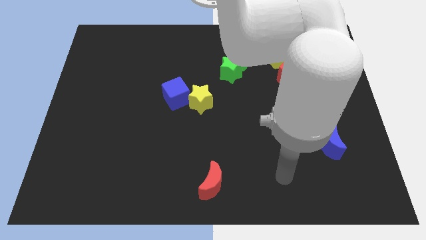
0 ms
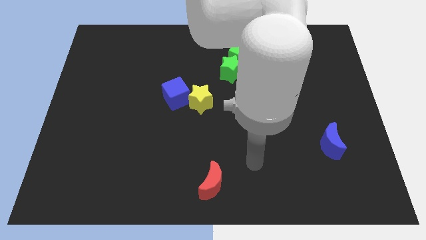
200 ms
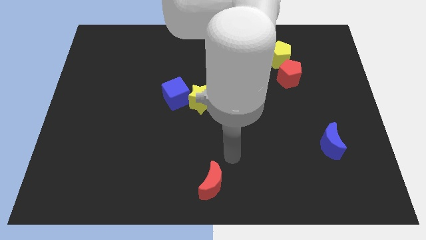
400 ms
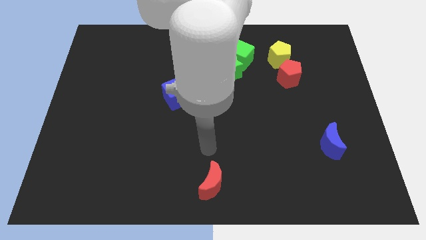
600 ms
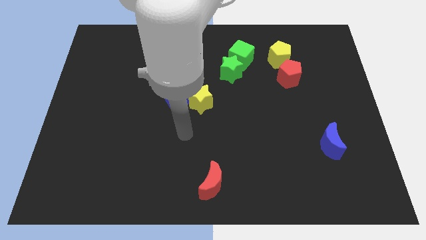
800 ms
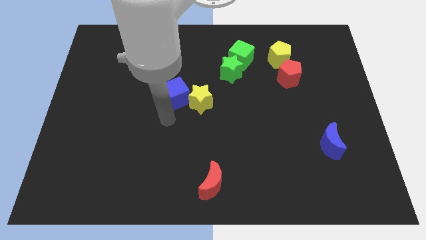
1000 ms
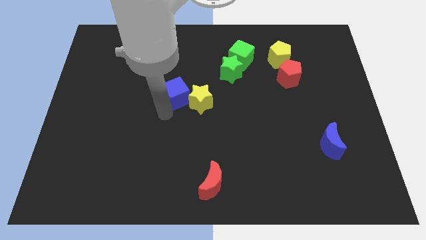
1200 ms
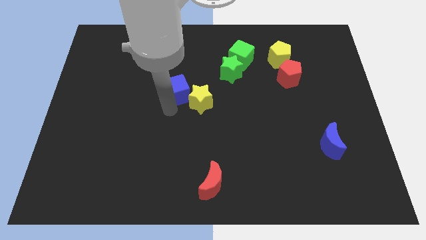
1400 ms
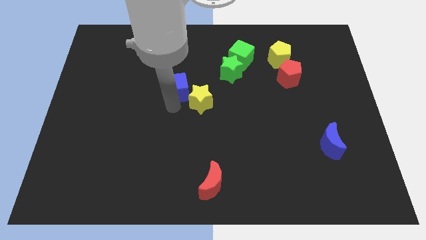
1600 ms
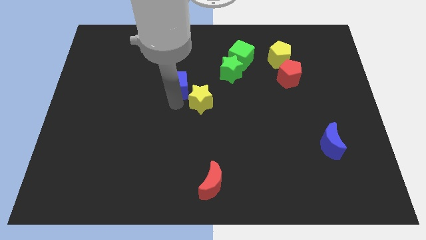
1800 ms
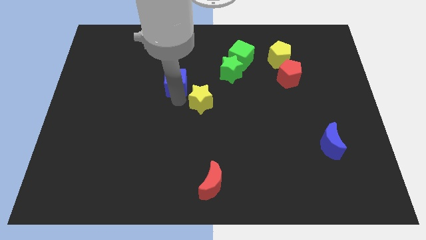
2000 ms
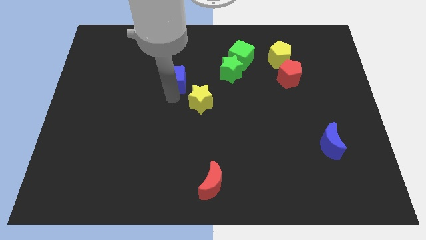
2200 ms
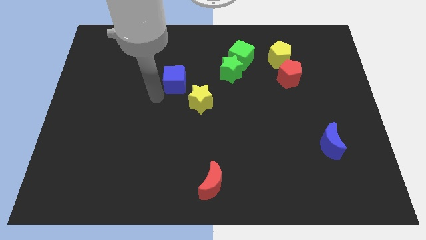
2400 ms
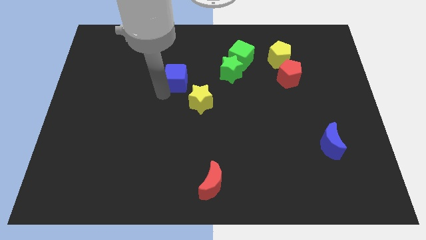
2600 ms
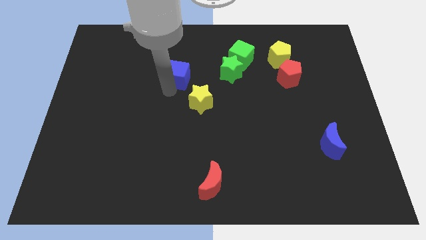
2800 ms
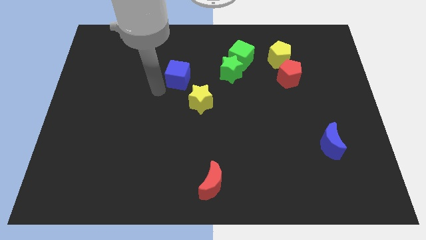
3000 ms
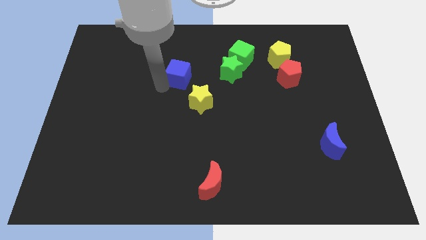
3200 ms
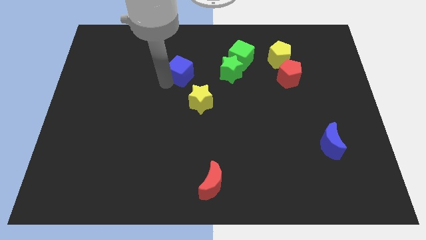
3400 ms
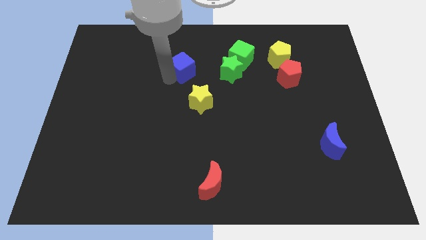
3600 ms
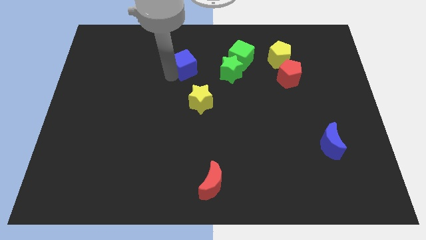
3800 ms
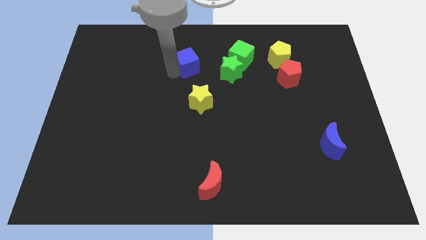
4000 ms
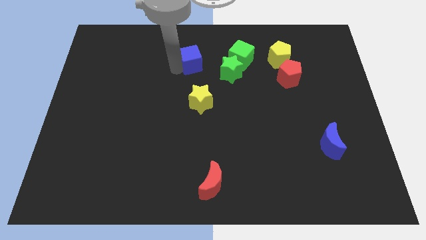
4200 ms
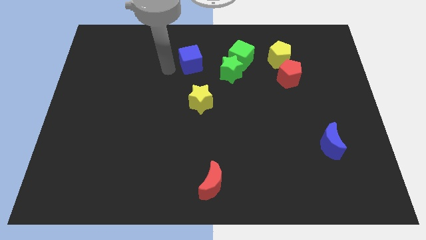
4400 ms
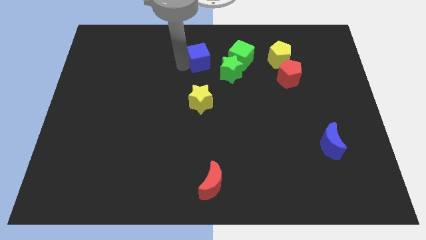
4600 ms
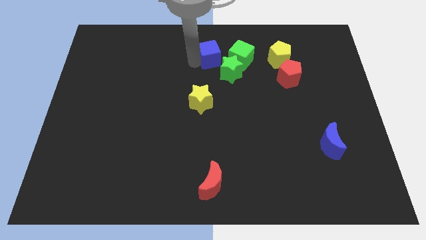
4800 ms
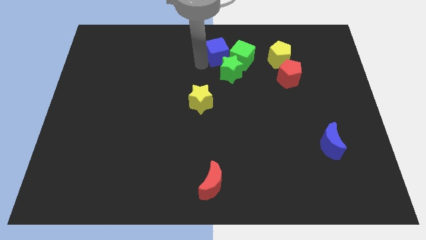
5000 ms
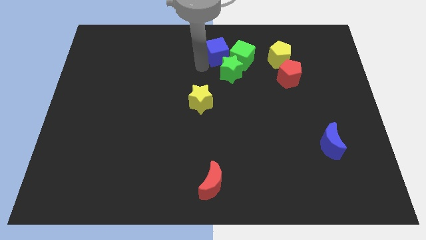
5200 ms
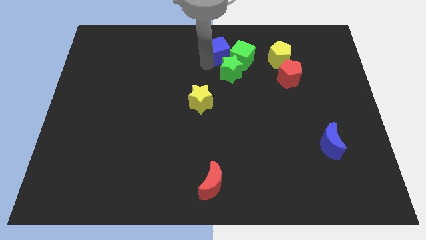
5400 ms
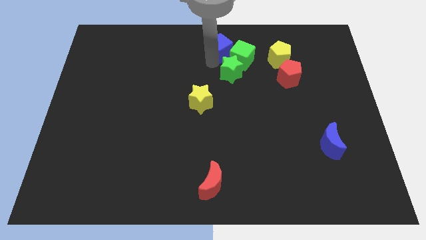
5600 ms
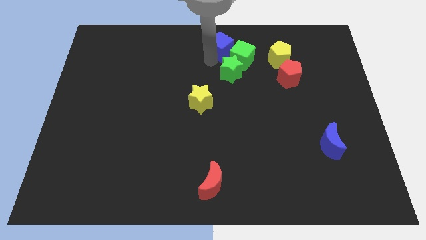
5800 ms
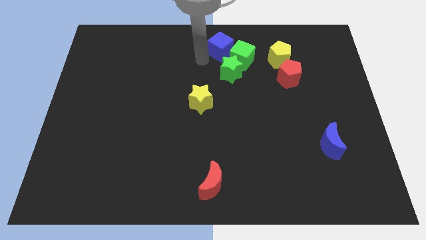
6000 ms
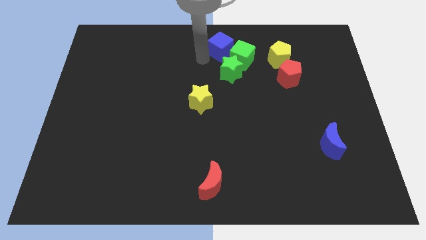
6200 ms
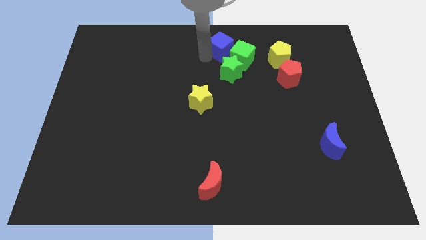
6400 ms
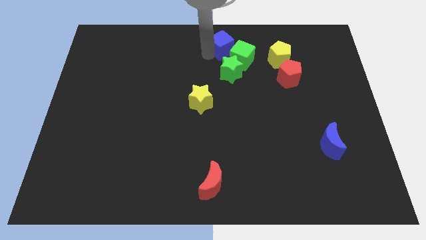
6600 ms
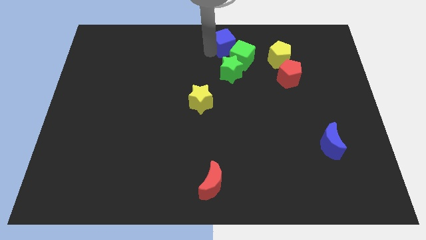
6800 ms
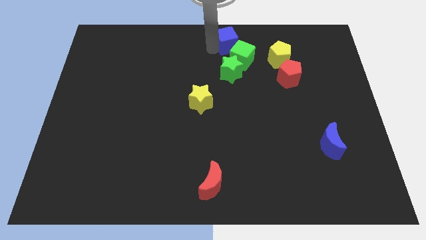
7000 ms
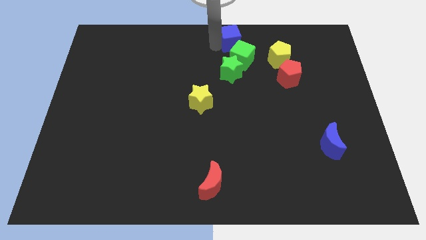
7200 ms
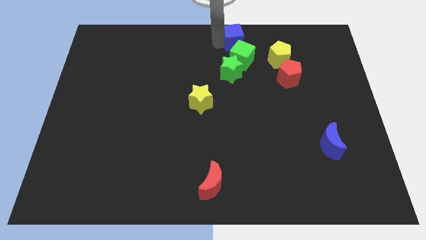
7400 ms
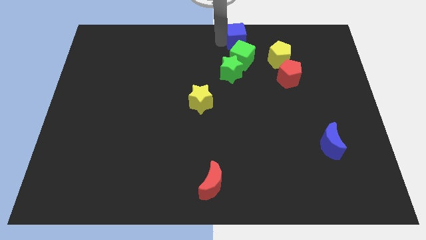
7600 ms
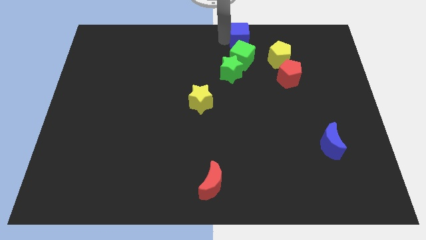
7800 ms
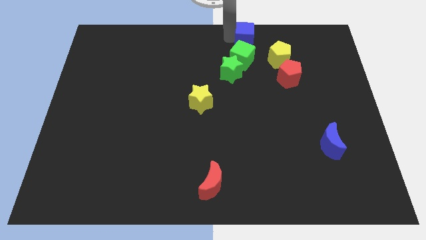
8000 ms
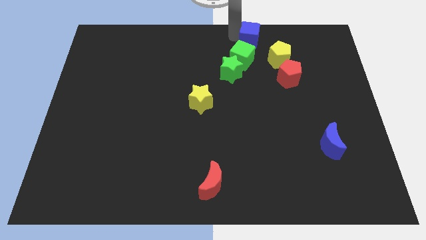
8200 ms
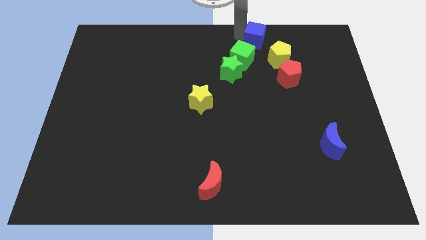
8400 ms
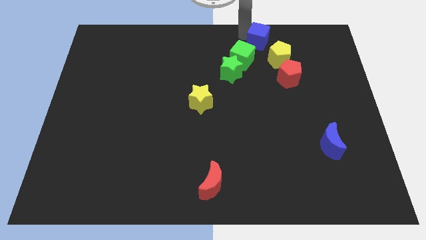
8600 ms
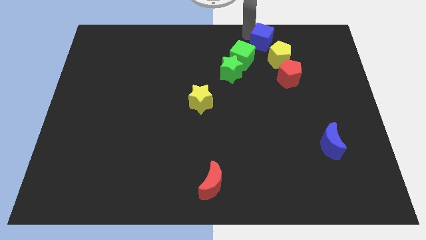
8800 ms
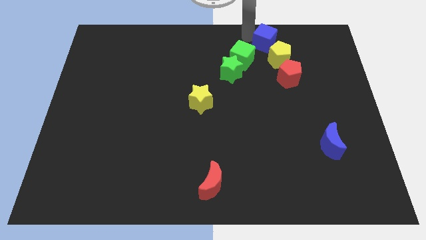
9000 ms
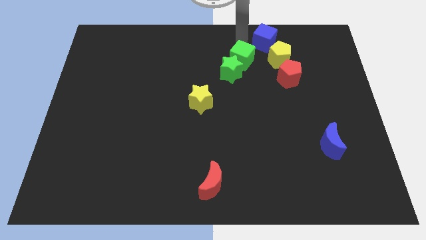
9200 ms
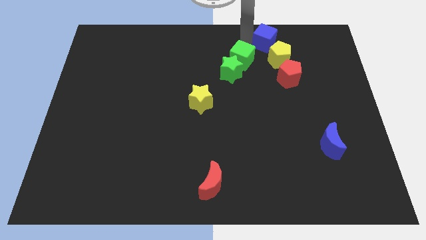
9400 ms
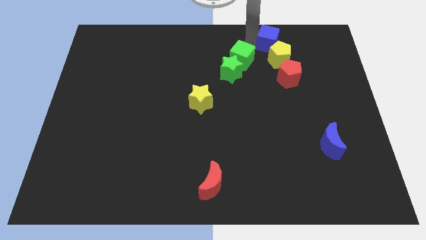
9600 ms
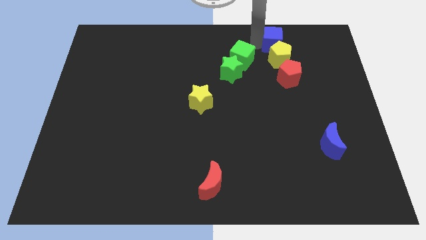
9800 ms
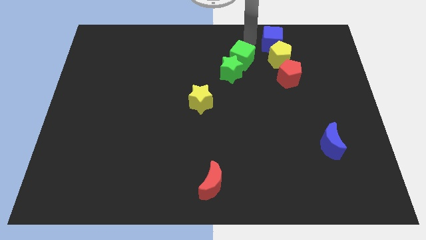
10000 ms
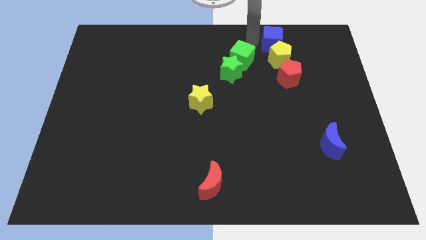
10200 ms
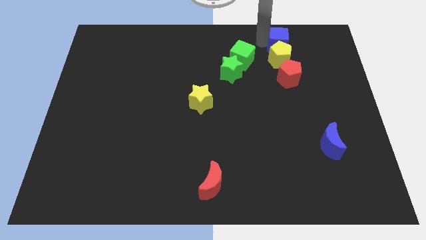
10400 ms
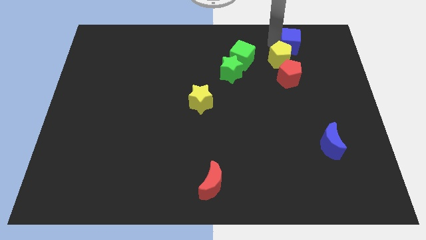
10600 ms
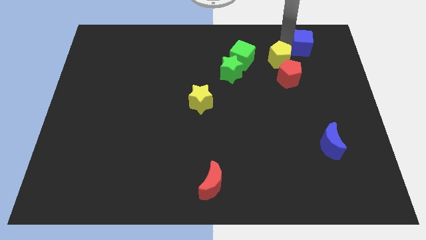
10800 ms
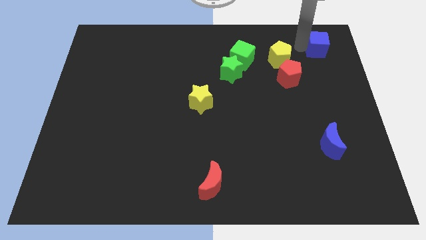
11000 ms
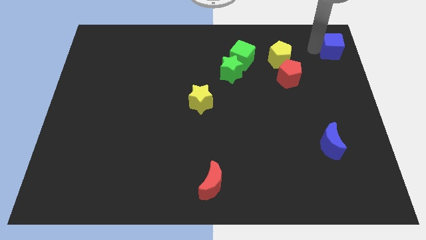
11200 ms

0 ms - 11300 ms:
slide the blue cube to the upper right corner
